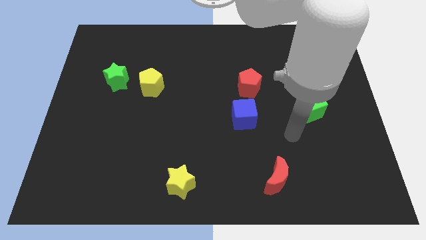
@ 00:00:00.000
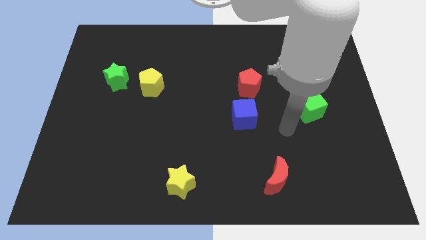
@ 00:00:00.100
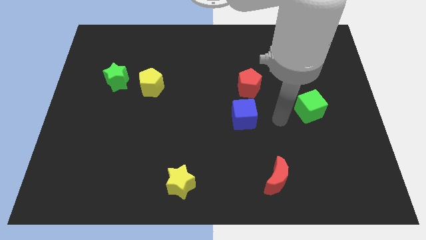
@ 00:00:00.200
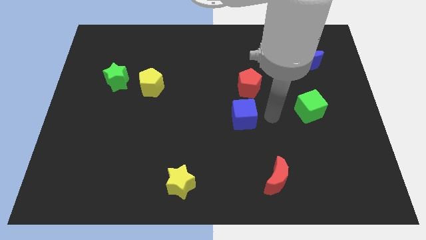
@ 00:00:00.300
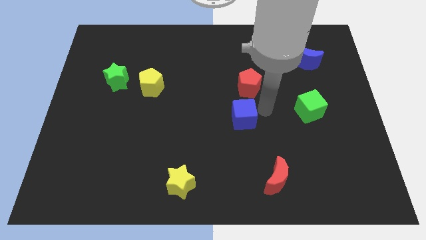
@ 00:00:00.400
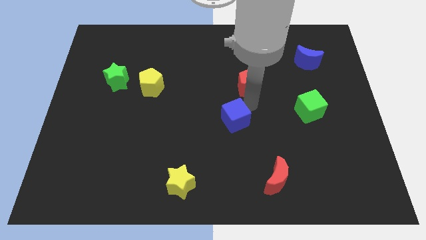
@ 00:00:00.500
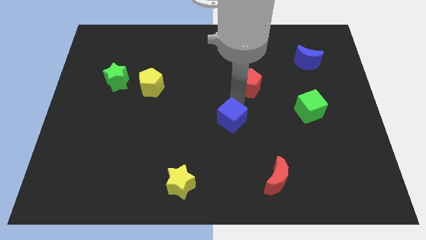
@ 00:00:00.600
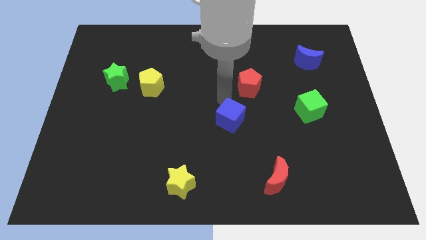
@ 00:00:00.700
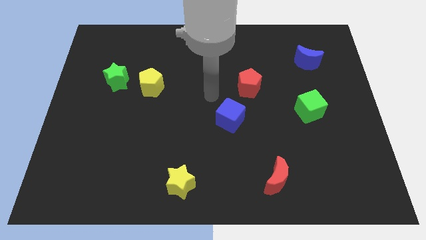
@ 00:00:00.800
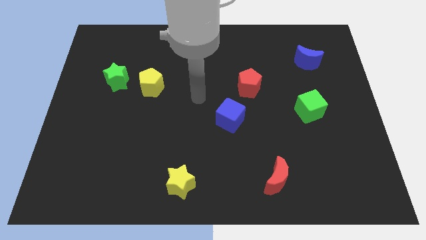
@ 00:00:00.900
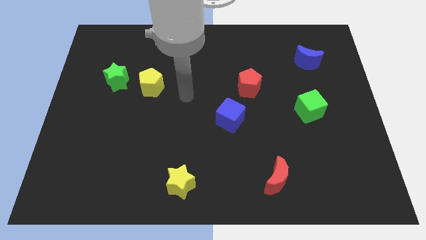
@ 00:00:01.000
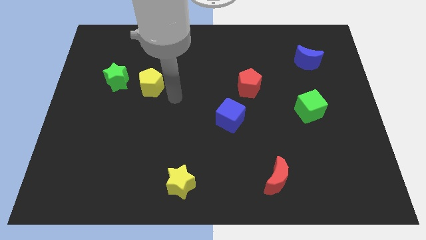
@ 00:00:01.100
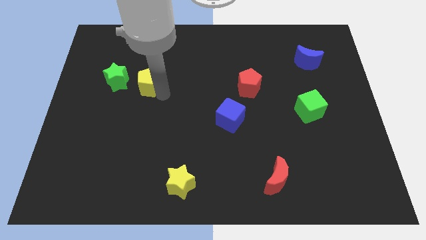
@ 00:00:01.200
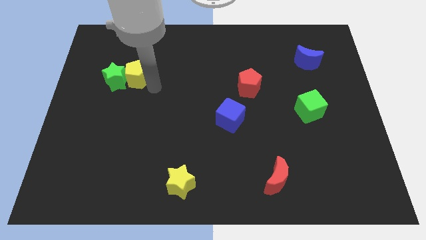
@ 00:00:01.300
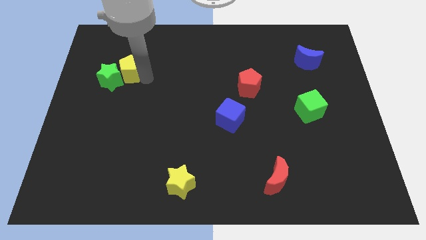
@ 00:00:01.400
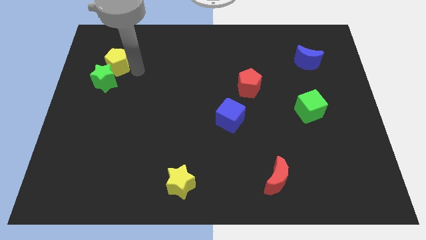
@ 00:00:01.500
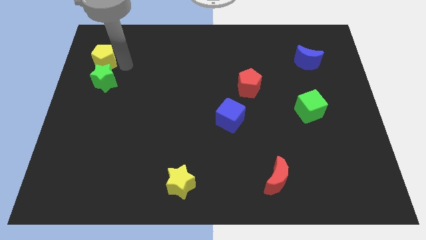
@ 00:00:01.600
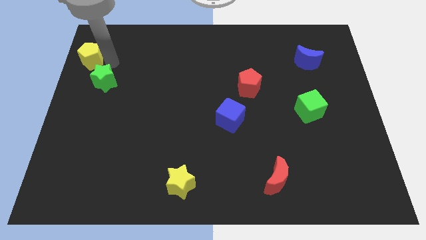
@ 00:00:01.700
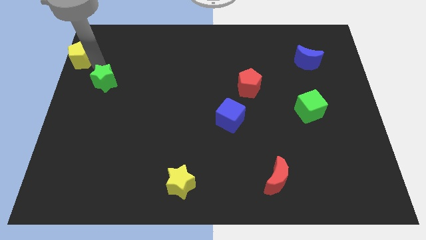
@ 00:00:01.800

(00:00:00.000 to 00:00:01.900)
move the green star away from the yellow pentagon

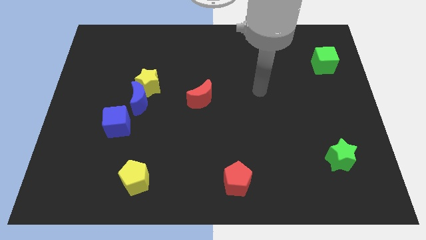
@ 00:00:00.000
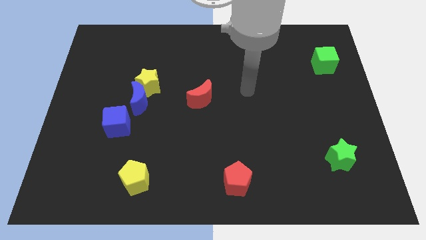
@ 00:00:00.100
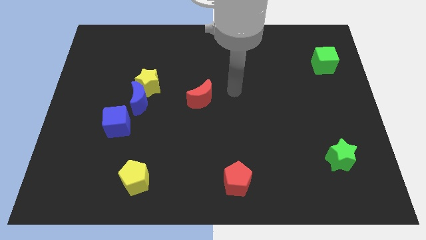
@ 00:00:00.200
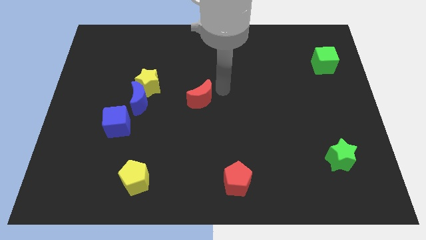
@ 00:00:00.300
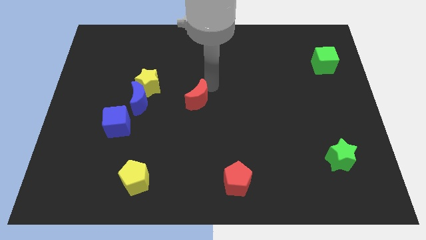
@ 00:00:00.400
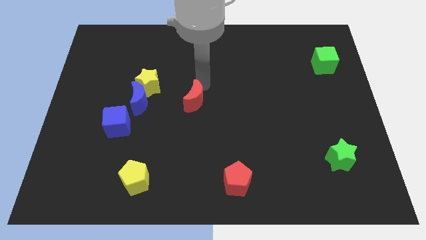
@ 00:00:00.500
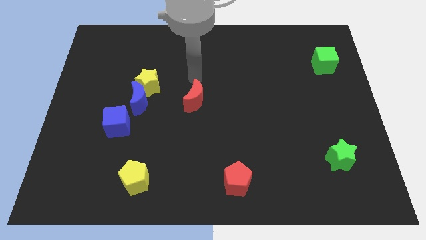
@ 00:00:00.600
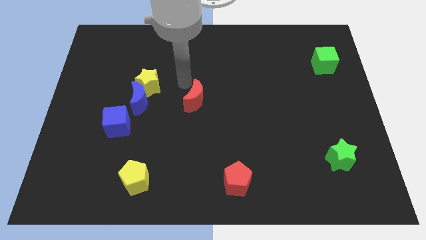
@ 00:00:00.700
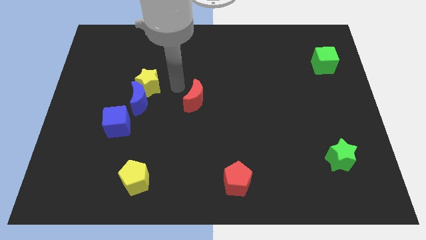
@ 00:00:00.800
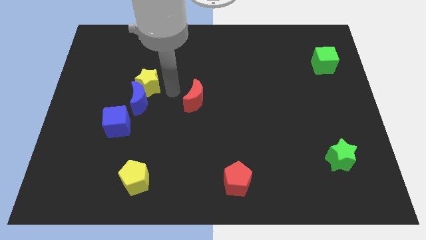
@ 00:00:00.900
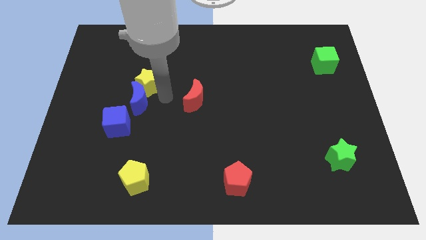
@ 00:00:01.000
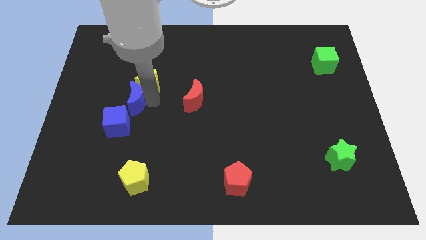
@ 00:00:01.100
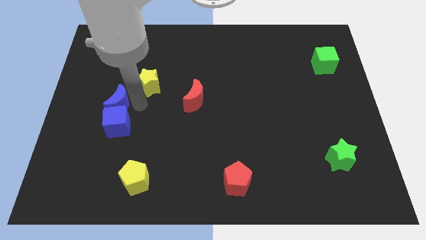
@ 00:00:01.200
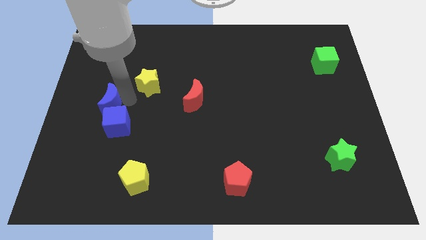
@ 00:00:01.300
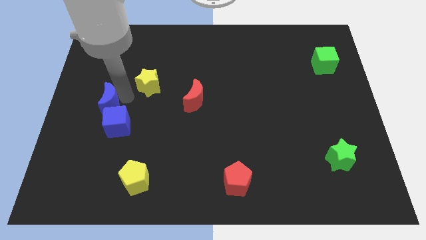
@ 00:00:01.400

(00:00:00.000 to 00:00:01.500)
separate the yellow star from the blue moon

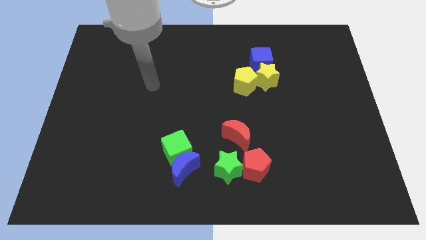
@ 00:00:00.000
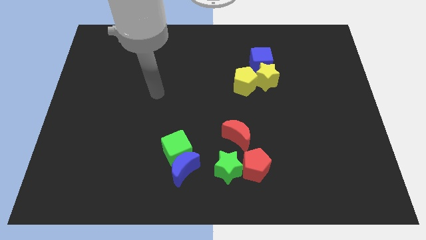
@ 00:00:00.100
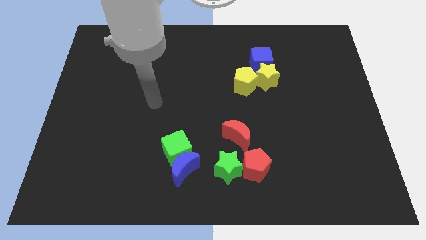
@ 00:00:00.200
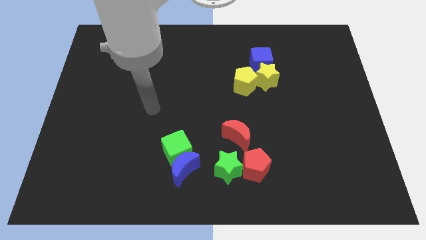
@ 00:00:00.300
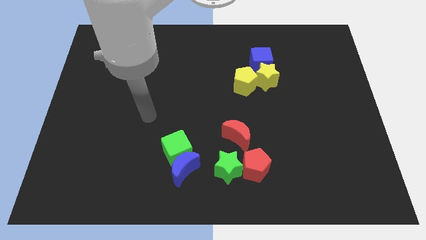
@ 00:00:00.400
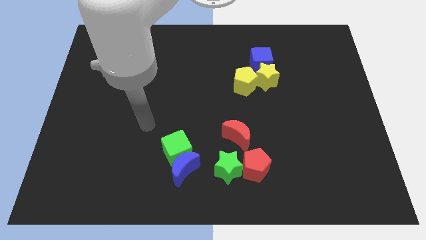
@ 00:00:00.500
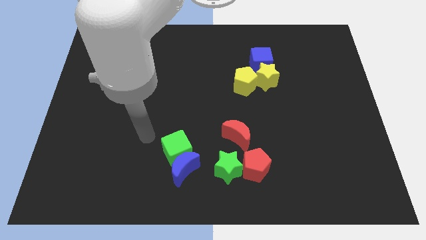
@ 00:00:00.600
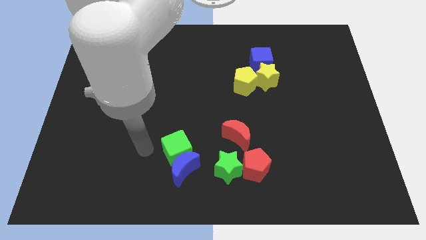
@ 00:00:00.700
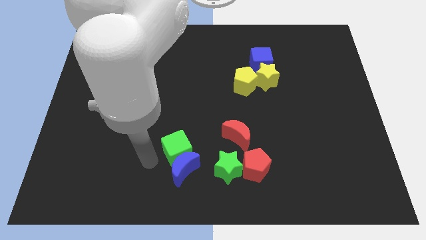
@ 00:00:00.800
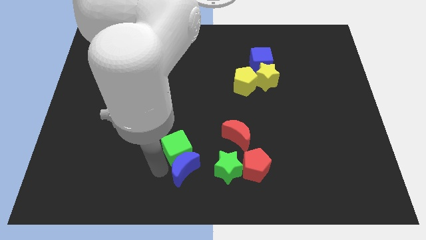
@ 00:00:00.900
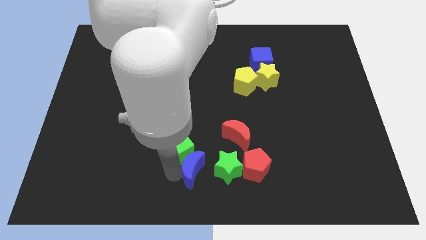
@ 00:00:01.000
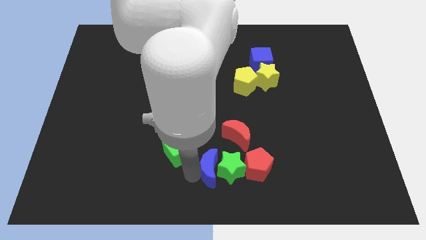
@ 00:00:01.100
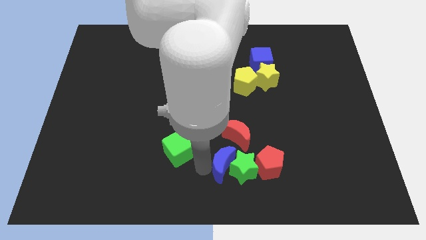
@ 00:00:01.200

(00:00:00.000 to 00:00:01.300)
move the green cube away from the blue moon

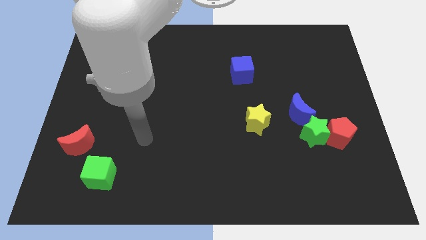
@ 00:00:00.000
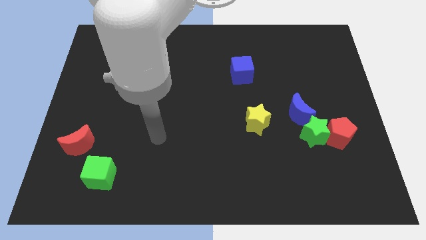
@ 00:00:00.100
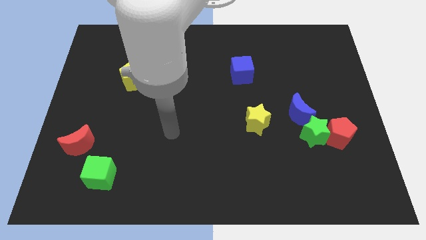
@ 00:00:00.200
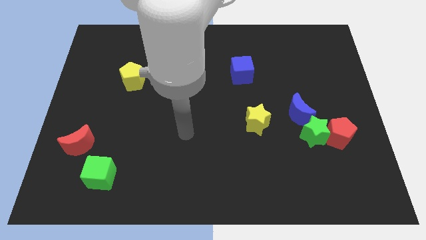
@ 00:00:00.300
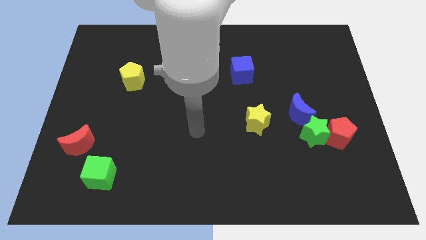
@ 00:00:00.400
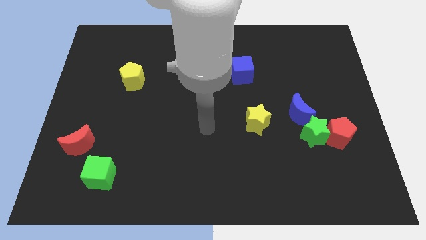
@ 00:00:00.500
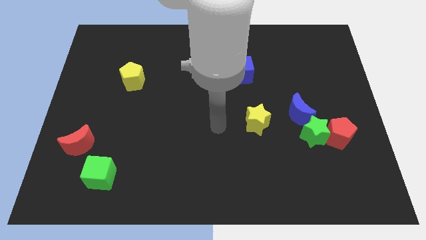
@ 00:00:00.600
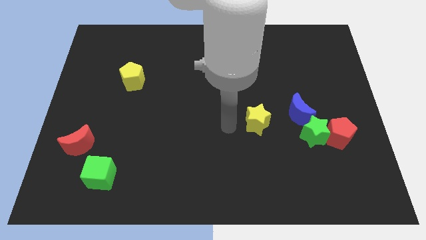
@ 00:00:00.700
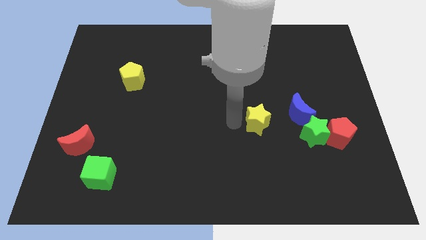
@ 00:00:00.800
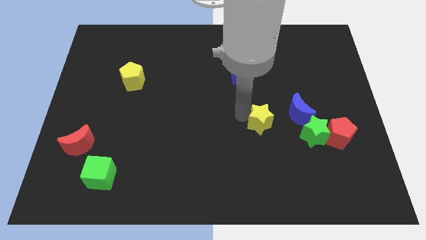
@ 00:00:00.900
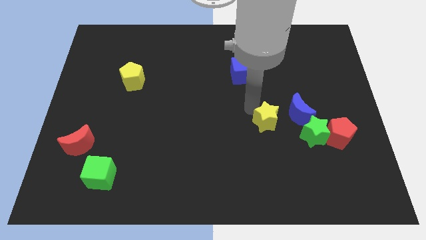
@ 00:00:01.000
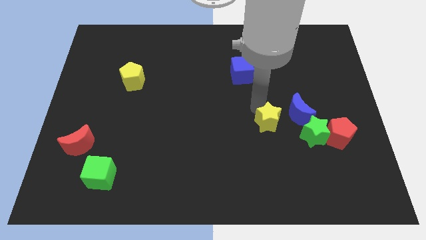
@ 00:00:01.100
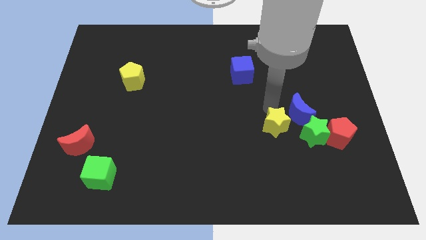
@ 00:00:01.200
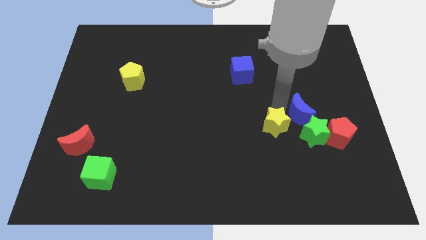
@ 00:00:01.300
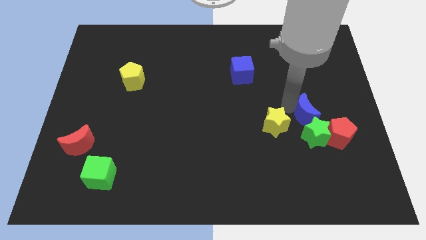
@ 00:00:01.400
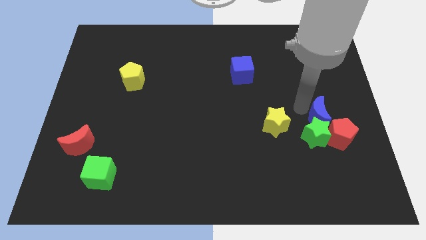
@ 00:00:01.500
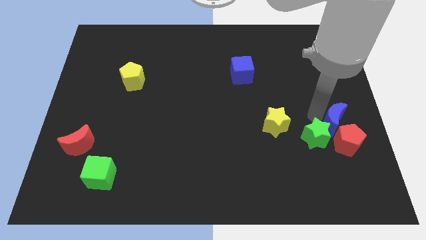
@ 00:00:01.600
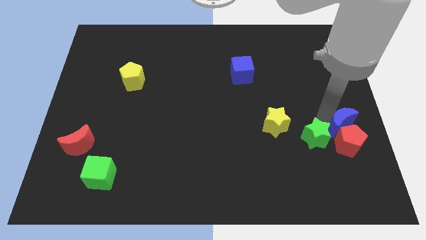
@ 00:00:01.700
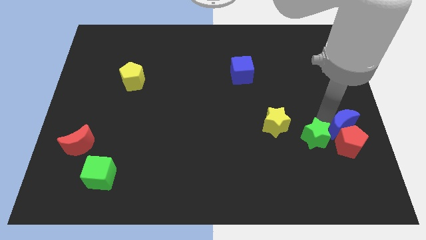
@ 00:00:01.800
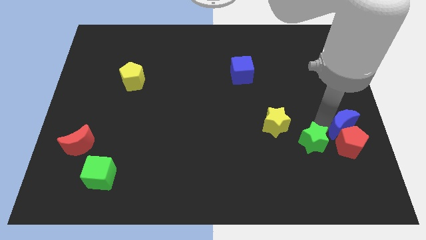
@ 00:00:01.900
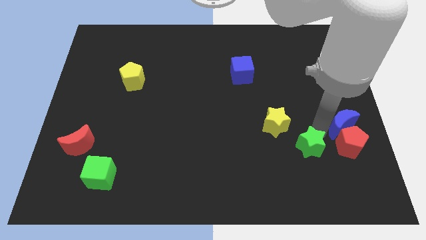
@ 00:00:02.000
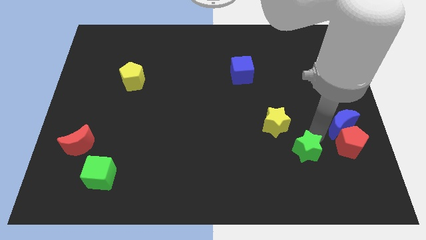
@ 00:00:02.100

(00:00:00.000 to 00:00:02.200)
move the green star away from the red pentagon and blue moon

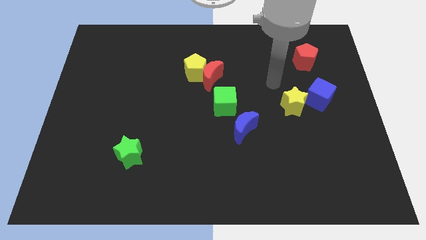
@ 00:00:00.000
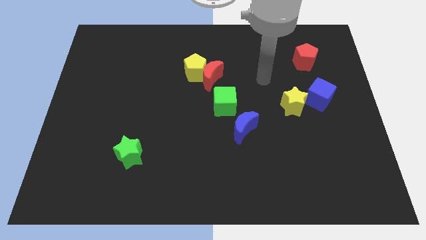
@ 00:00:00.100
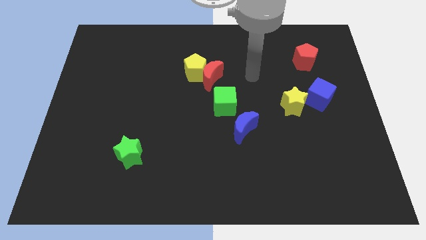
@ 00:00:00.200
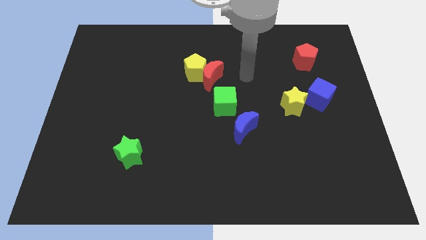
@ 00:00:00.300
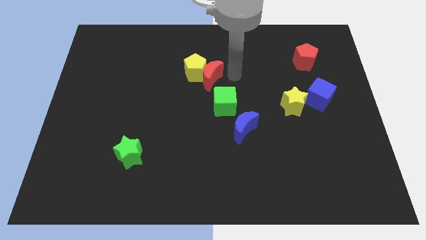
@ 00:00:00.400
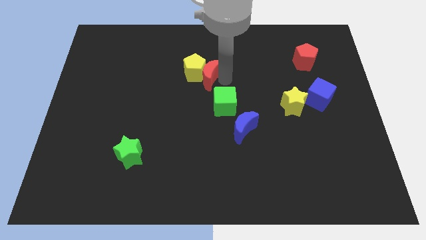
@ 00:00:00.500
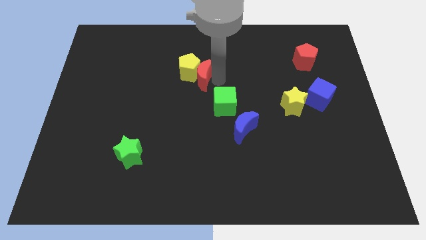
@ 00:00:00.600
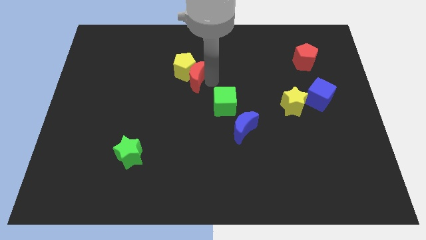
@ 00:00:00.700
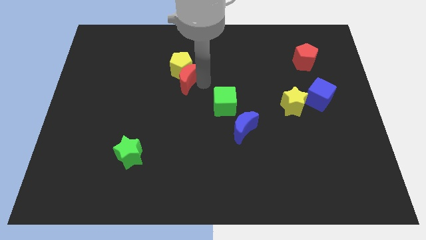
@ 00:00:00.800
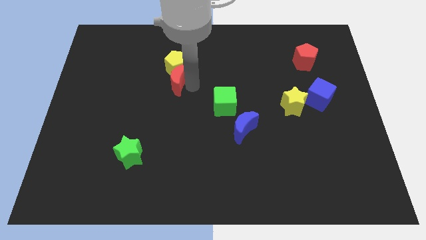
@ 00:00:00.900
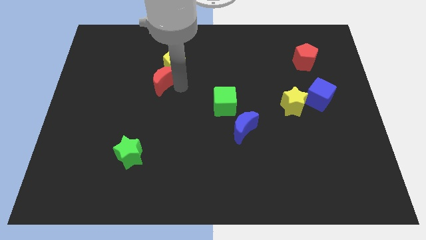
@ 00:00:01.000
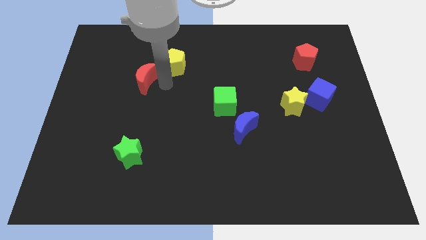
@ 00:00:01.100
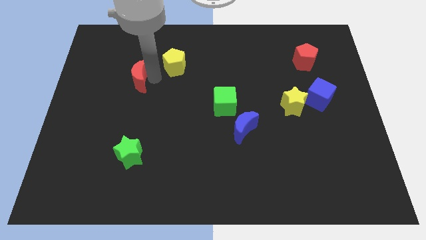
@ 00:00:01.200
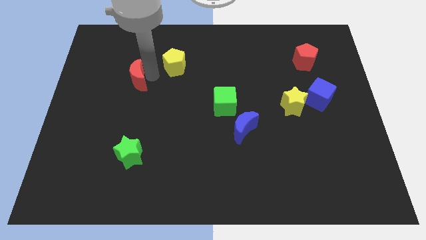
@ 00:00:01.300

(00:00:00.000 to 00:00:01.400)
separate the yellow pentagon from the red moon

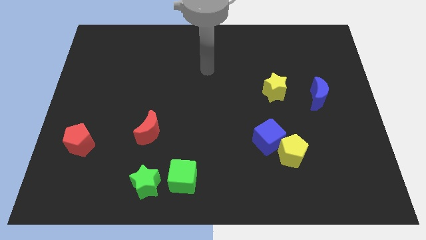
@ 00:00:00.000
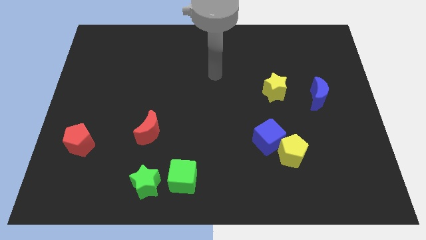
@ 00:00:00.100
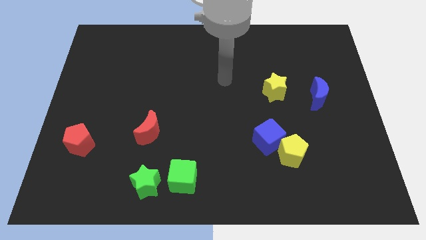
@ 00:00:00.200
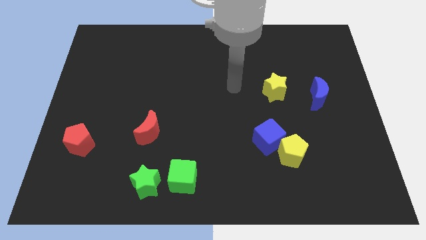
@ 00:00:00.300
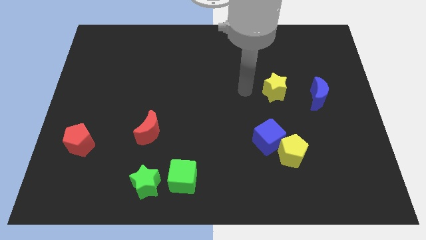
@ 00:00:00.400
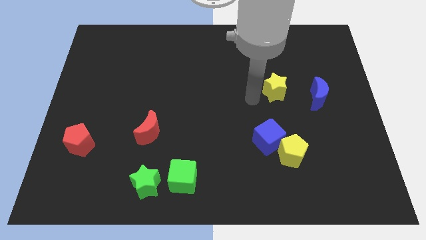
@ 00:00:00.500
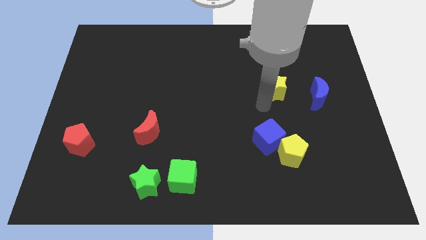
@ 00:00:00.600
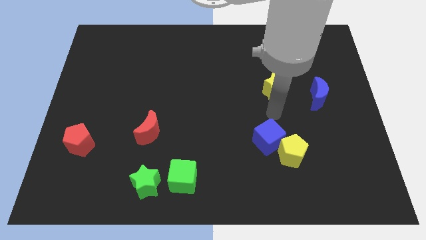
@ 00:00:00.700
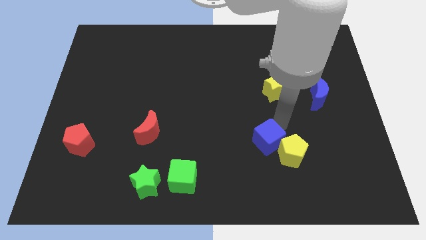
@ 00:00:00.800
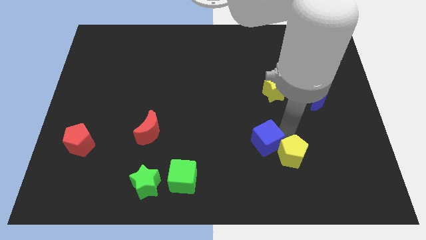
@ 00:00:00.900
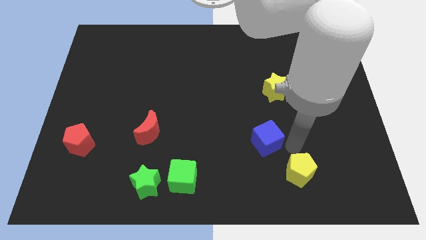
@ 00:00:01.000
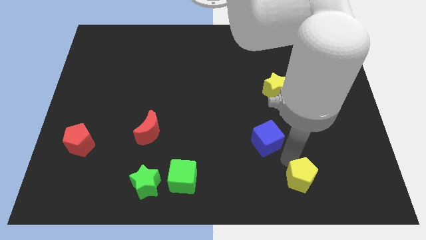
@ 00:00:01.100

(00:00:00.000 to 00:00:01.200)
separate the blue cube from the yellow pentagon
